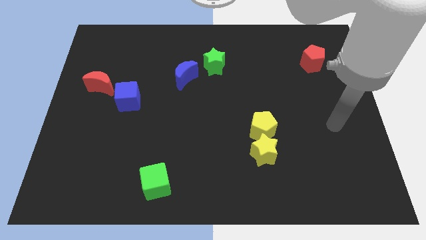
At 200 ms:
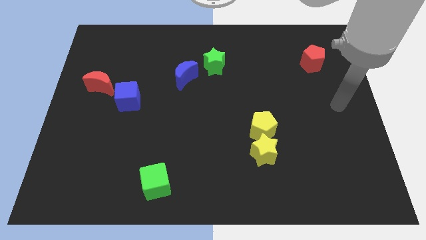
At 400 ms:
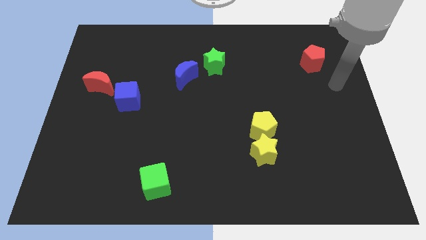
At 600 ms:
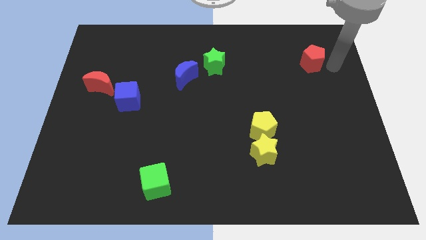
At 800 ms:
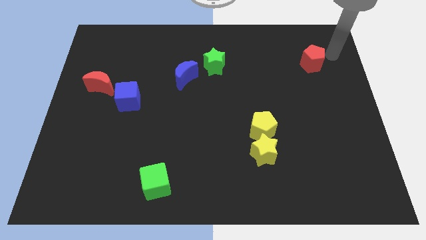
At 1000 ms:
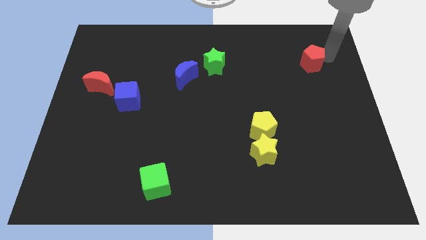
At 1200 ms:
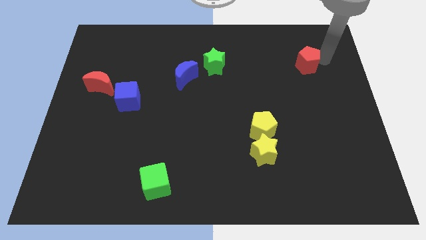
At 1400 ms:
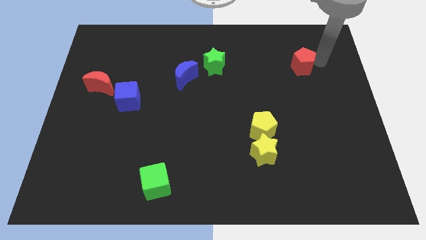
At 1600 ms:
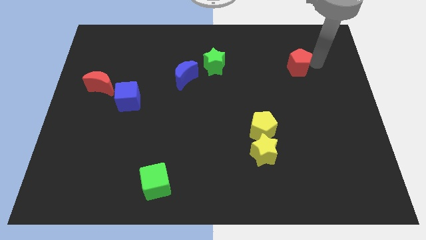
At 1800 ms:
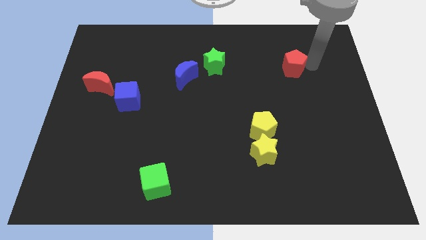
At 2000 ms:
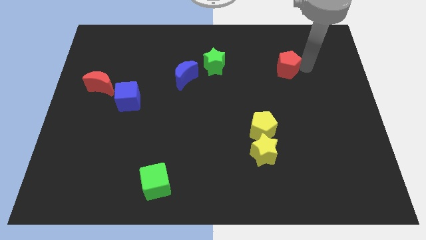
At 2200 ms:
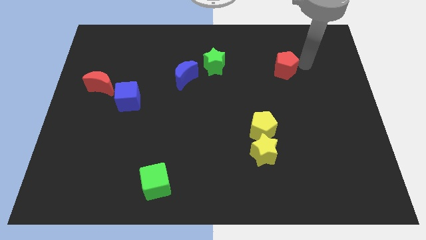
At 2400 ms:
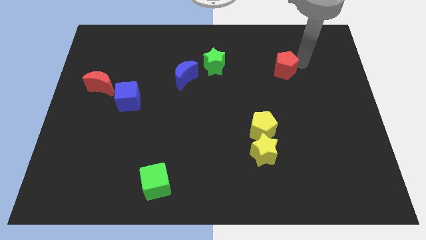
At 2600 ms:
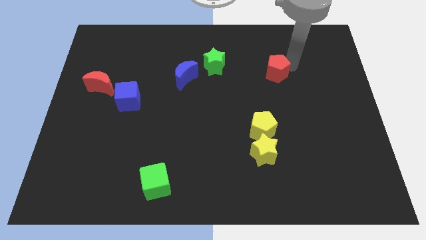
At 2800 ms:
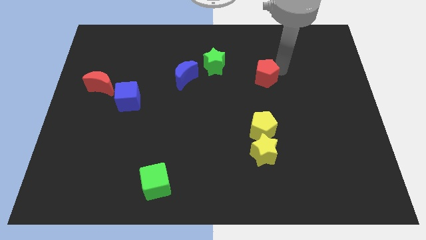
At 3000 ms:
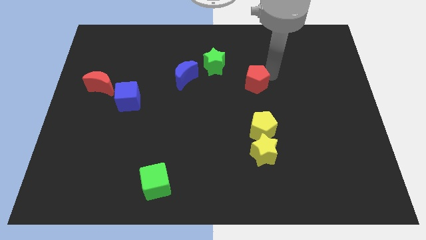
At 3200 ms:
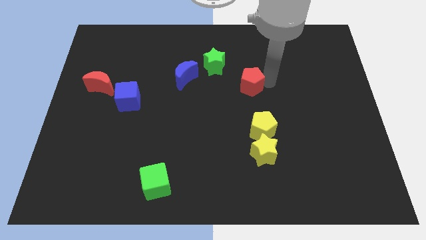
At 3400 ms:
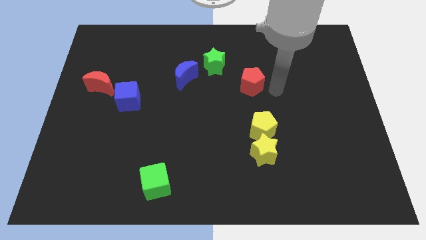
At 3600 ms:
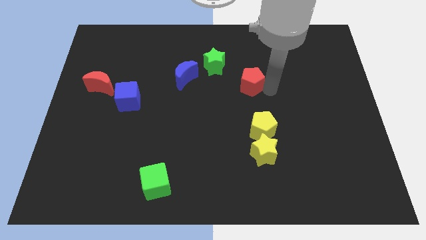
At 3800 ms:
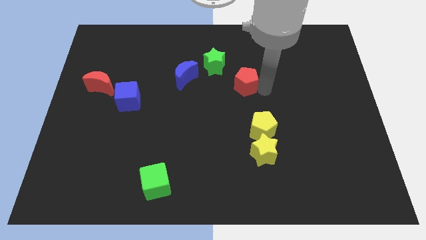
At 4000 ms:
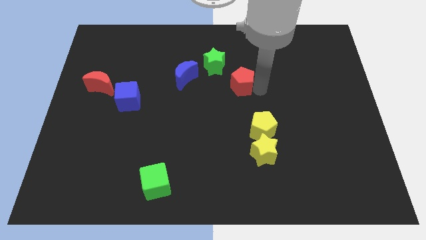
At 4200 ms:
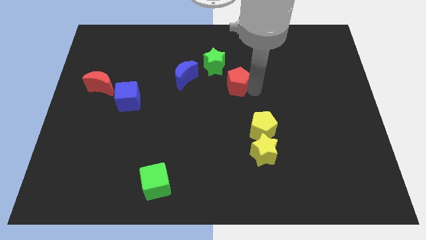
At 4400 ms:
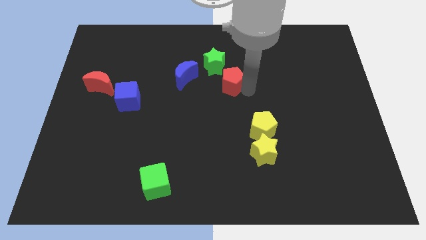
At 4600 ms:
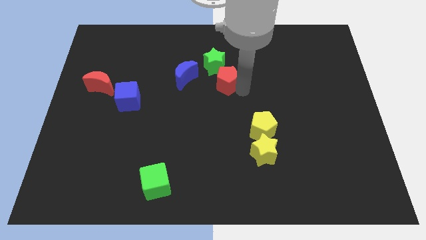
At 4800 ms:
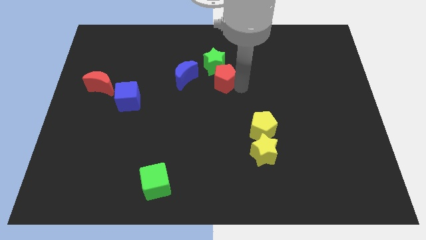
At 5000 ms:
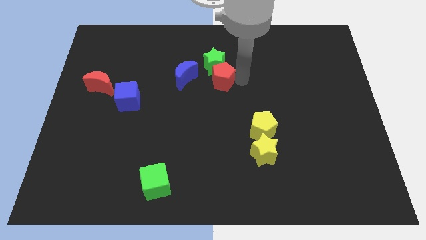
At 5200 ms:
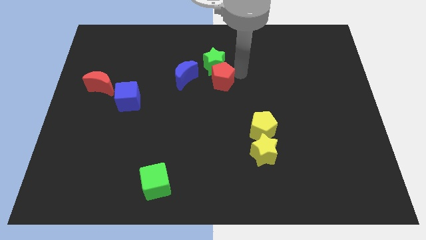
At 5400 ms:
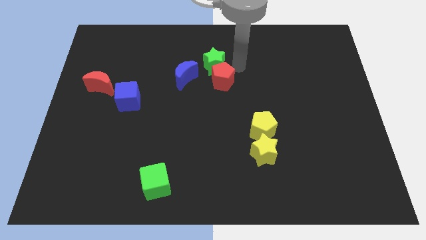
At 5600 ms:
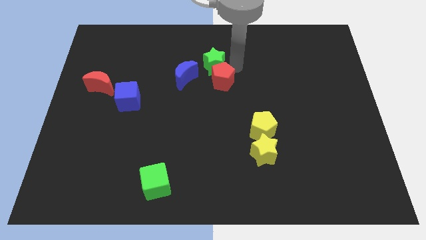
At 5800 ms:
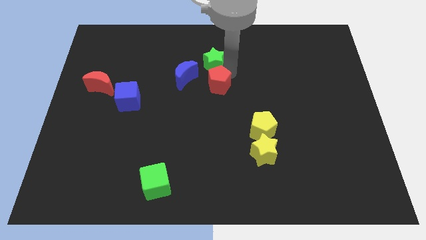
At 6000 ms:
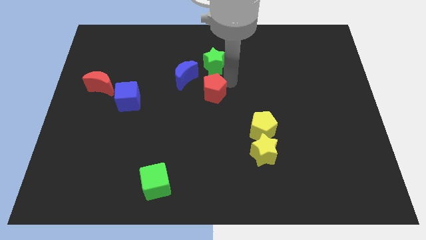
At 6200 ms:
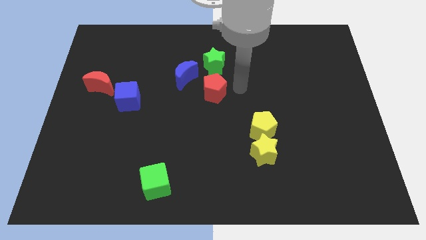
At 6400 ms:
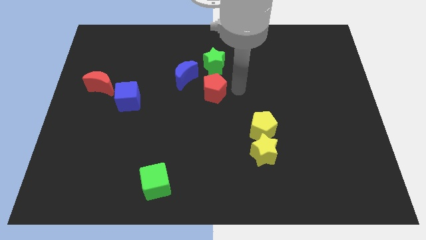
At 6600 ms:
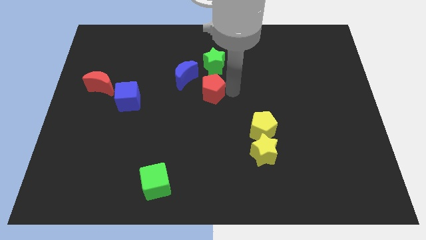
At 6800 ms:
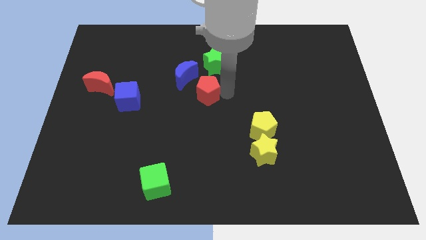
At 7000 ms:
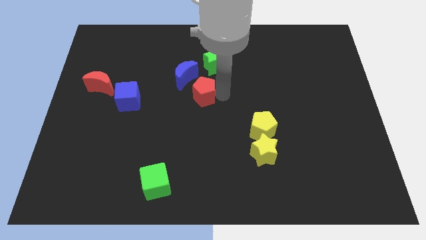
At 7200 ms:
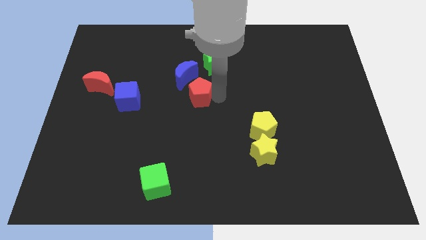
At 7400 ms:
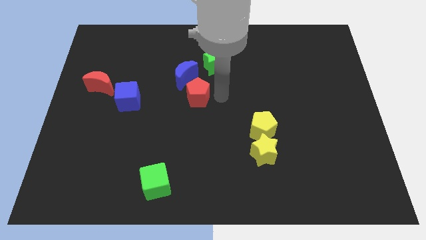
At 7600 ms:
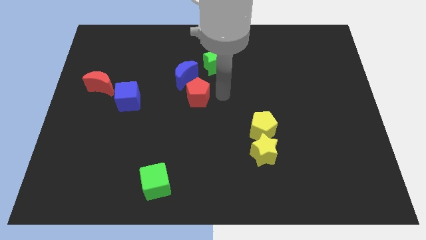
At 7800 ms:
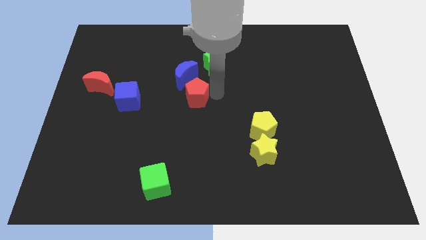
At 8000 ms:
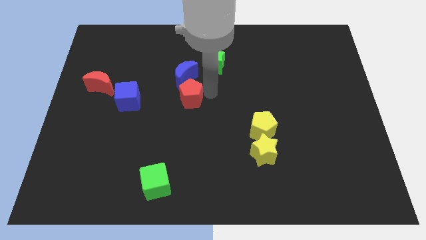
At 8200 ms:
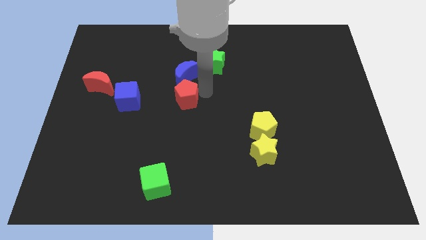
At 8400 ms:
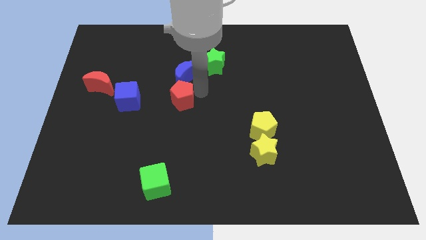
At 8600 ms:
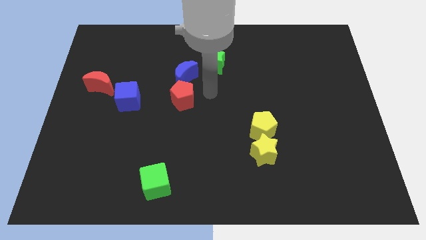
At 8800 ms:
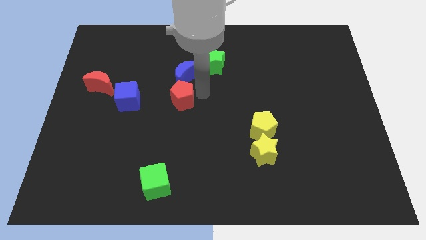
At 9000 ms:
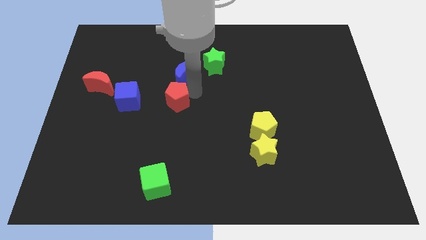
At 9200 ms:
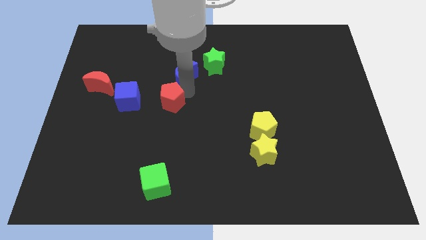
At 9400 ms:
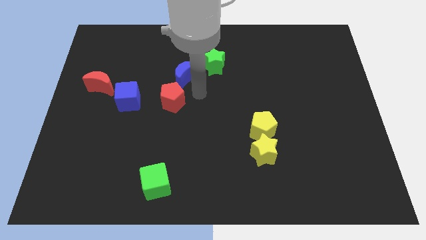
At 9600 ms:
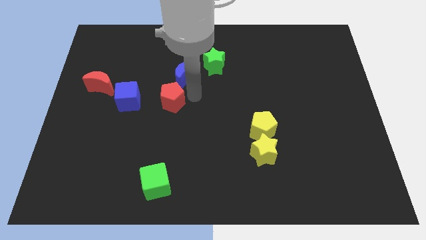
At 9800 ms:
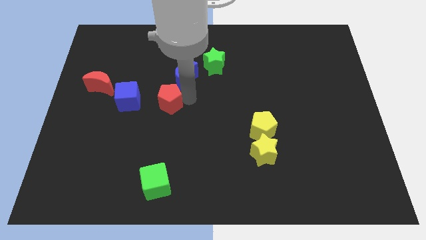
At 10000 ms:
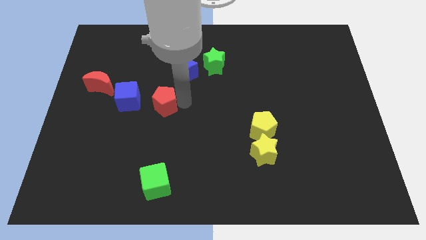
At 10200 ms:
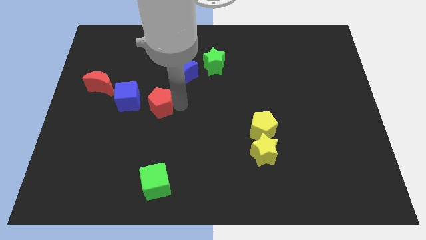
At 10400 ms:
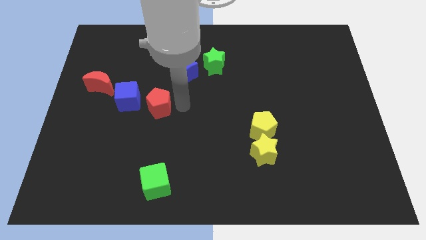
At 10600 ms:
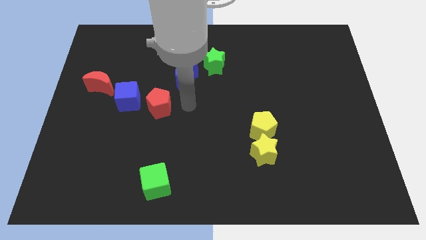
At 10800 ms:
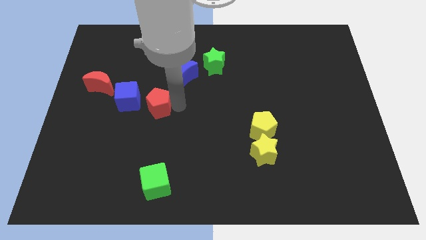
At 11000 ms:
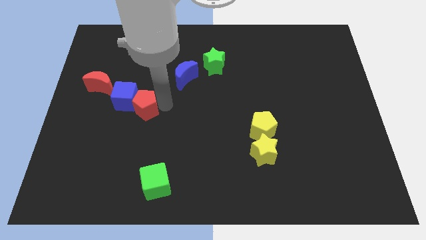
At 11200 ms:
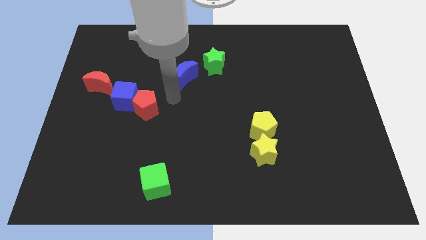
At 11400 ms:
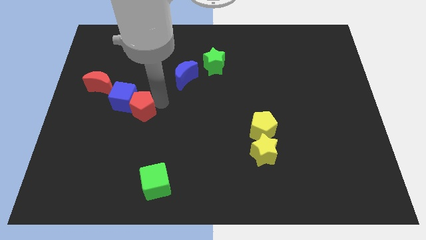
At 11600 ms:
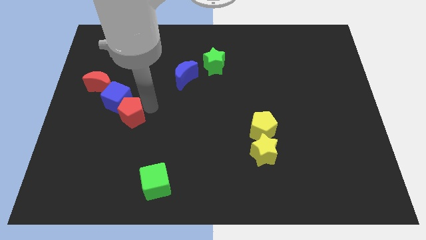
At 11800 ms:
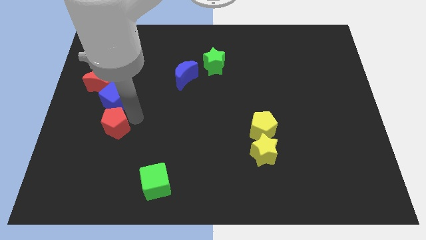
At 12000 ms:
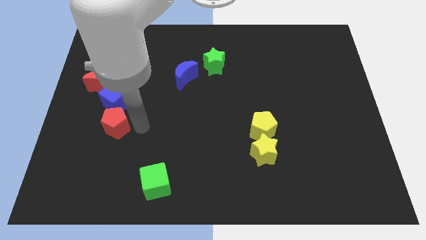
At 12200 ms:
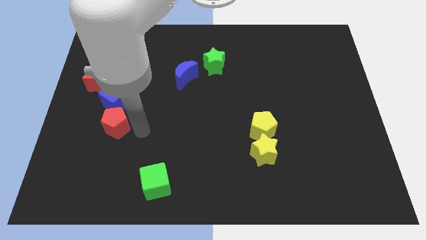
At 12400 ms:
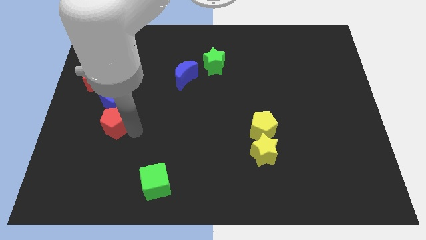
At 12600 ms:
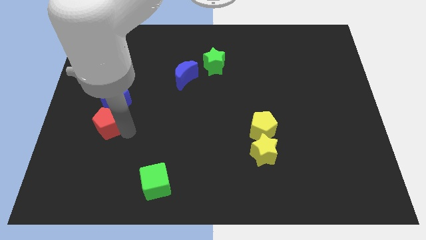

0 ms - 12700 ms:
move the red pentagon to the bottom left of the blue cube

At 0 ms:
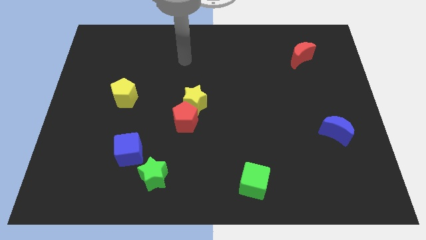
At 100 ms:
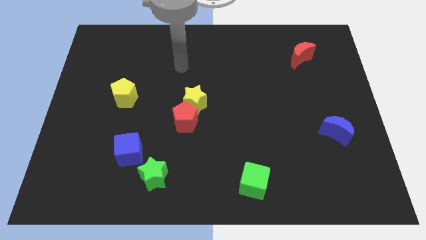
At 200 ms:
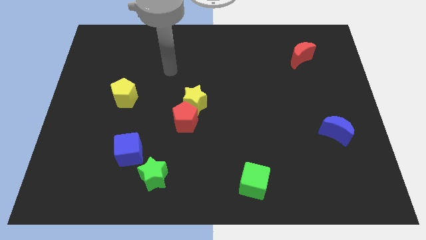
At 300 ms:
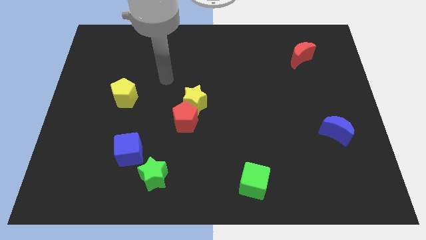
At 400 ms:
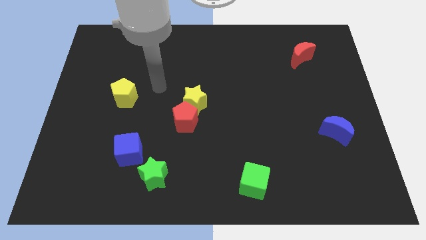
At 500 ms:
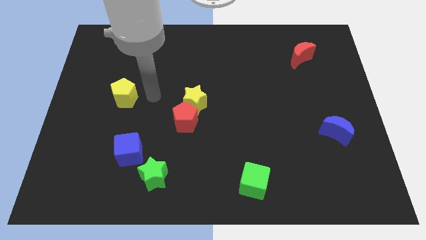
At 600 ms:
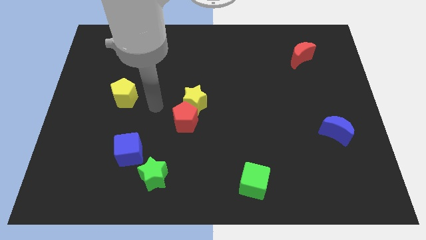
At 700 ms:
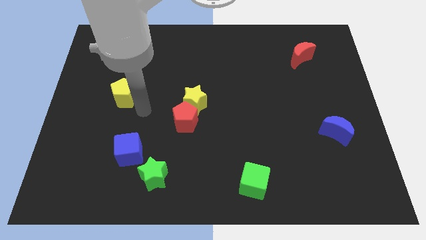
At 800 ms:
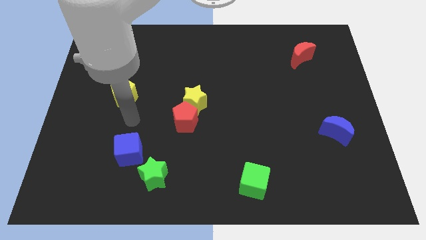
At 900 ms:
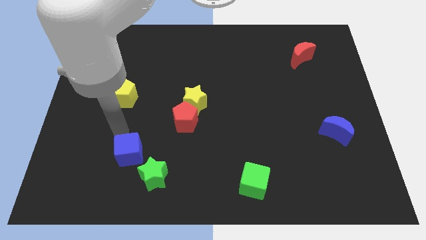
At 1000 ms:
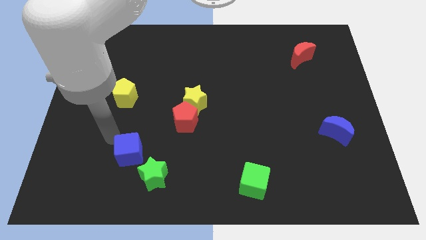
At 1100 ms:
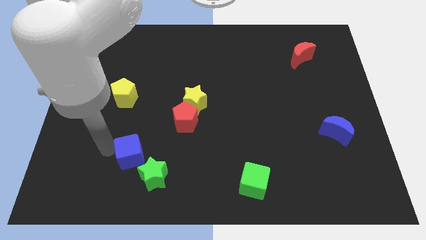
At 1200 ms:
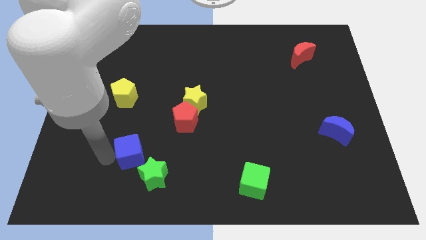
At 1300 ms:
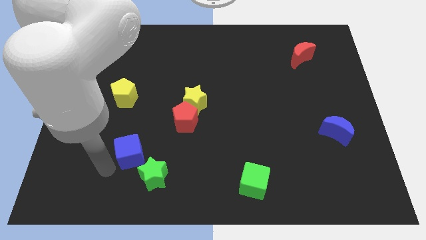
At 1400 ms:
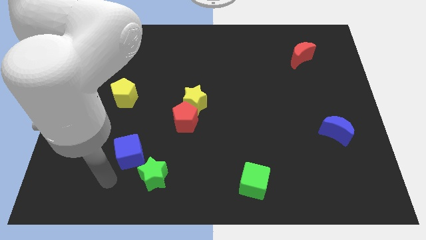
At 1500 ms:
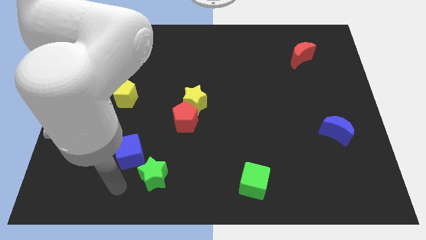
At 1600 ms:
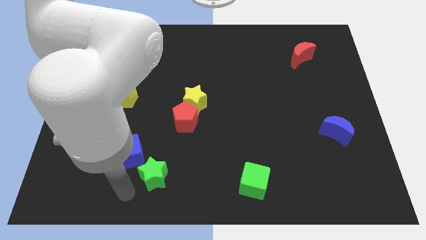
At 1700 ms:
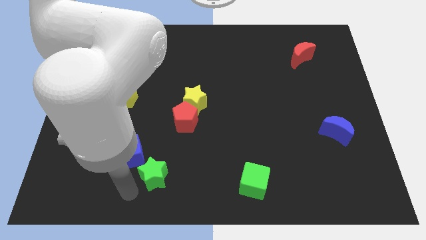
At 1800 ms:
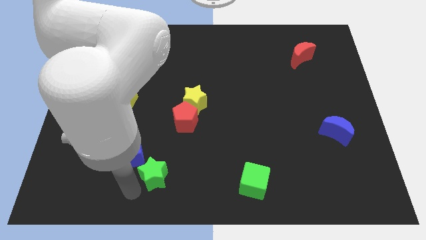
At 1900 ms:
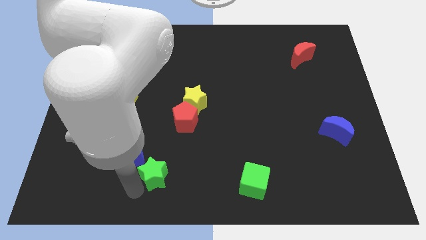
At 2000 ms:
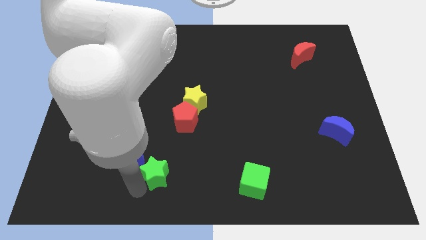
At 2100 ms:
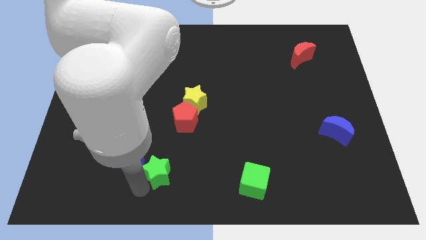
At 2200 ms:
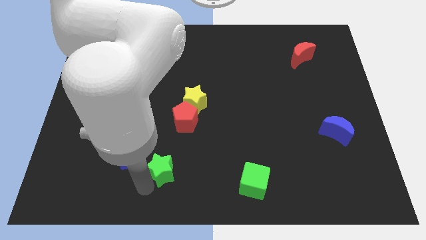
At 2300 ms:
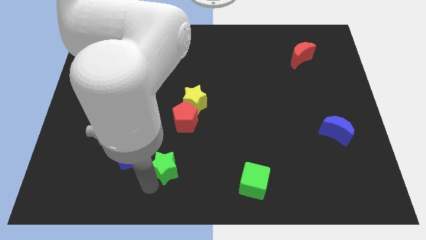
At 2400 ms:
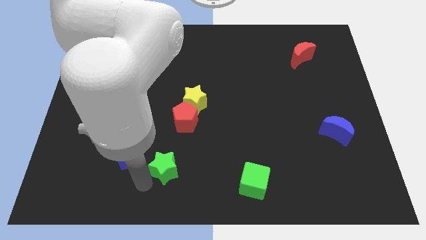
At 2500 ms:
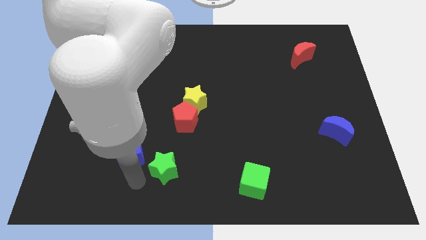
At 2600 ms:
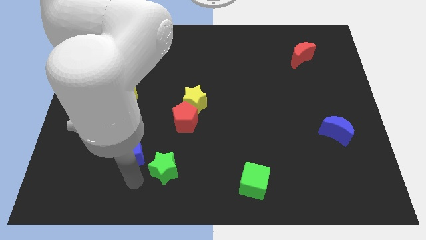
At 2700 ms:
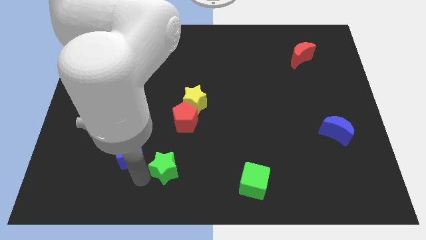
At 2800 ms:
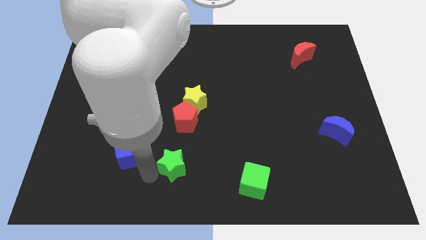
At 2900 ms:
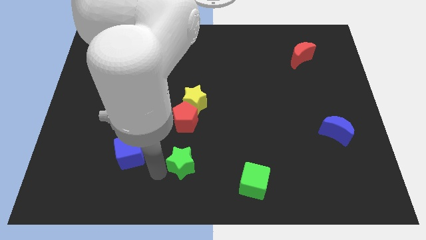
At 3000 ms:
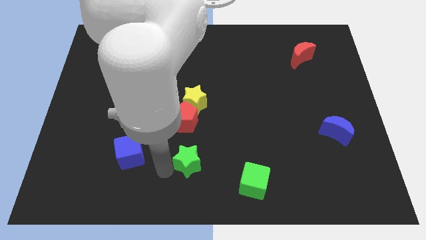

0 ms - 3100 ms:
slide the green star to the bottom of the yellow star
